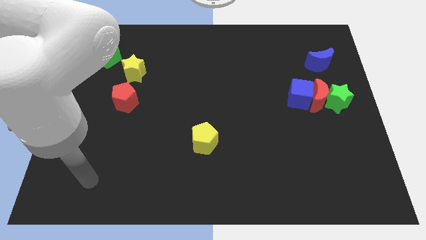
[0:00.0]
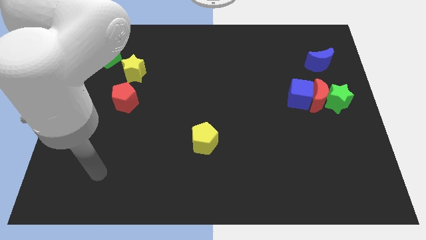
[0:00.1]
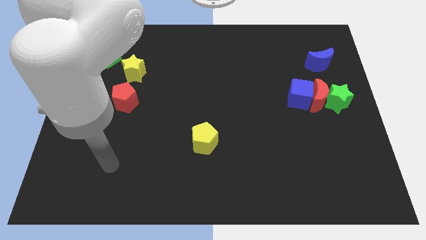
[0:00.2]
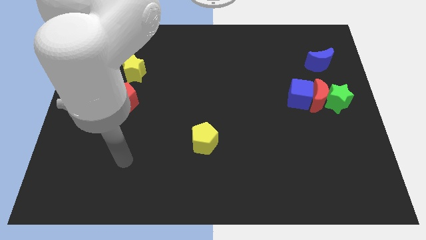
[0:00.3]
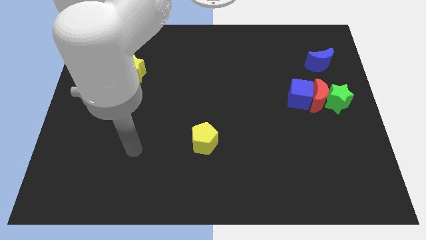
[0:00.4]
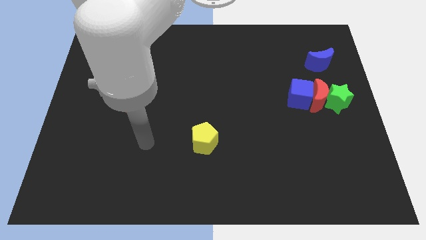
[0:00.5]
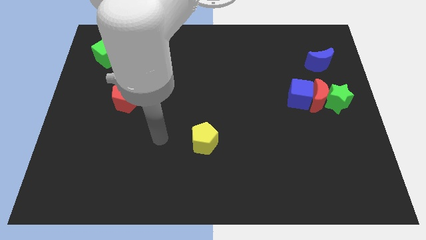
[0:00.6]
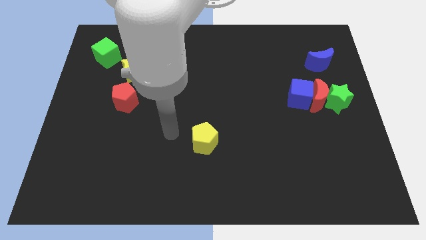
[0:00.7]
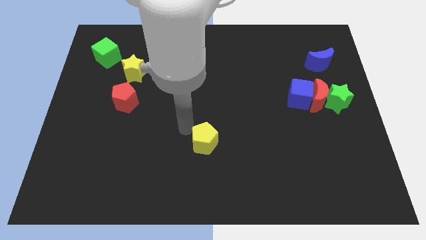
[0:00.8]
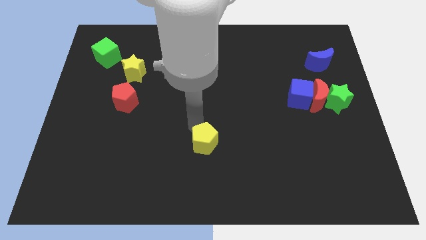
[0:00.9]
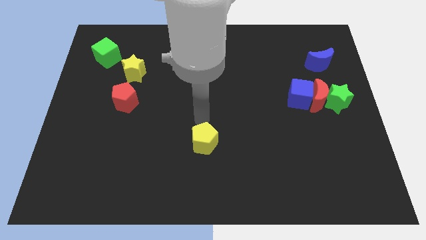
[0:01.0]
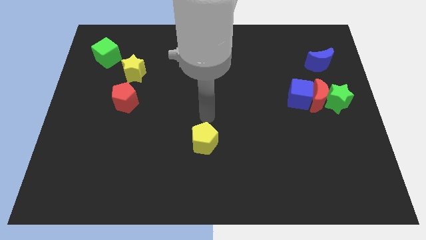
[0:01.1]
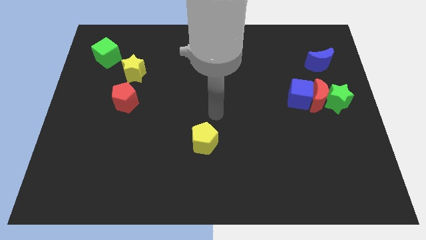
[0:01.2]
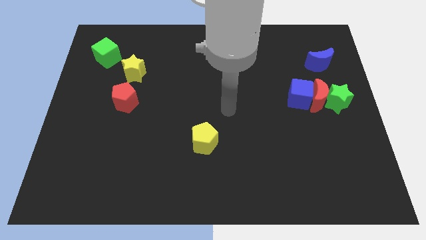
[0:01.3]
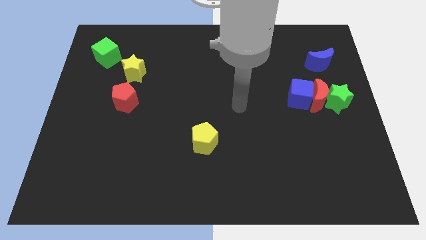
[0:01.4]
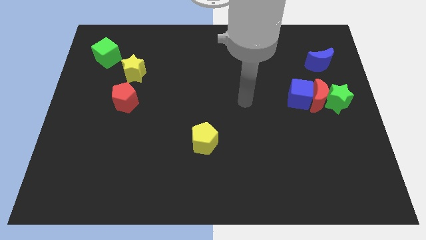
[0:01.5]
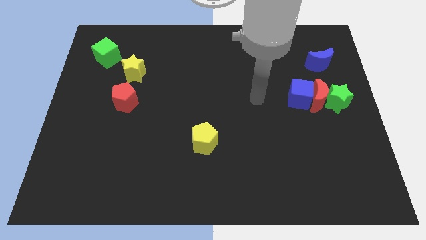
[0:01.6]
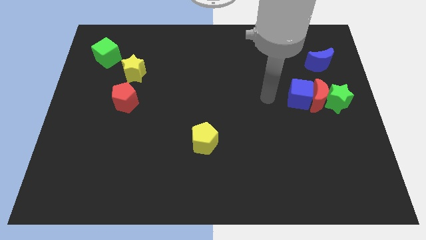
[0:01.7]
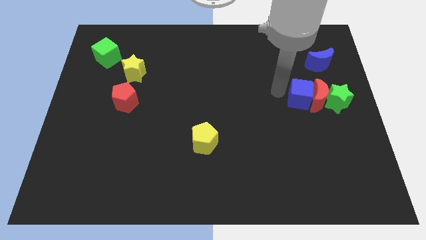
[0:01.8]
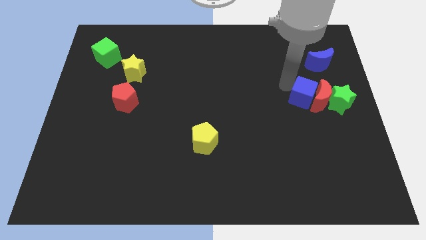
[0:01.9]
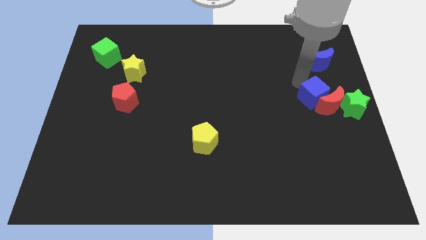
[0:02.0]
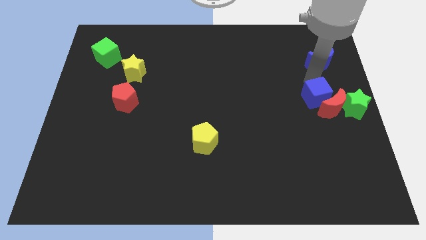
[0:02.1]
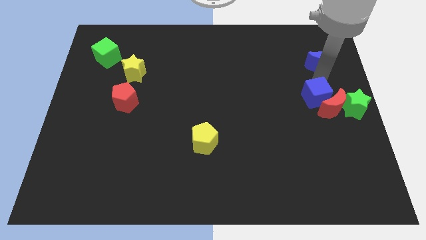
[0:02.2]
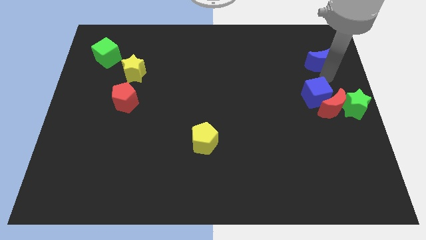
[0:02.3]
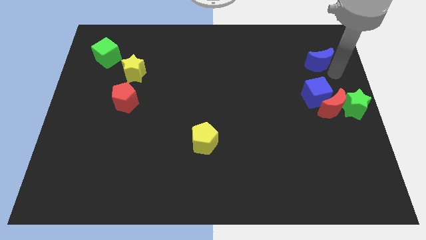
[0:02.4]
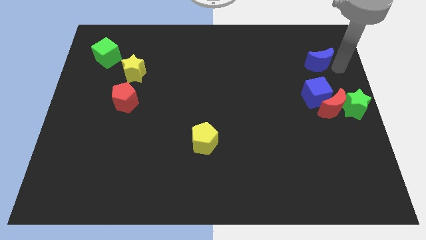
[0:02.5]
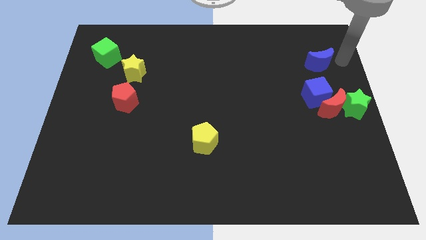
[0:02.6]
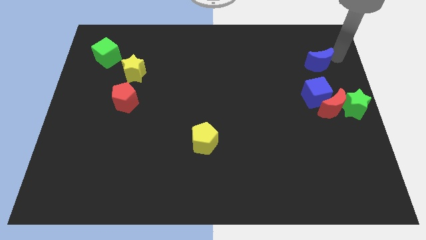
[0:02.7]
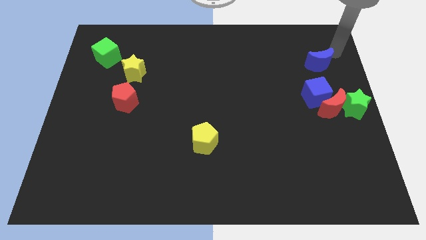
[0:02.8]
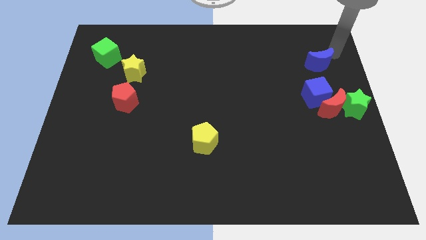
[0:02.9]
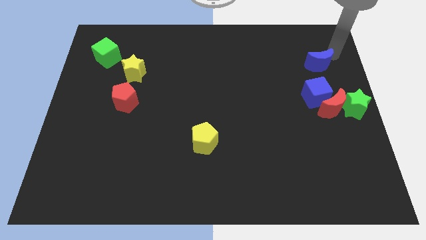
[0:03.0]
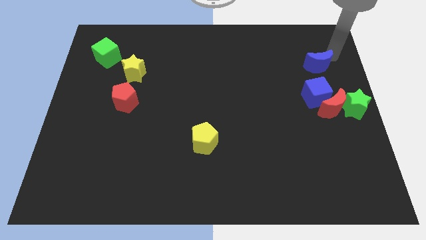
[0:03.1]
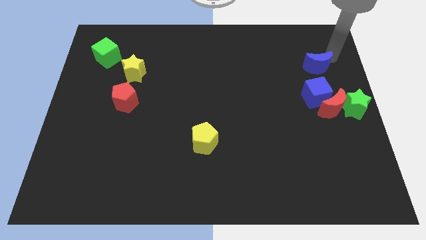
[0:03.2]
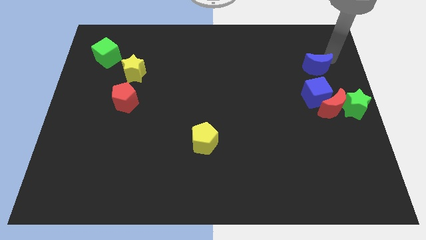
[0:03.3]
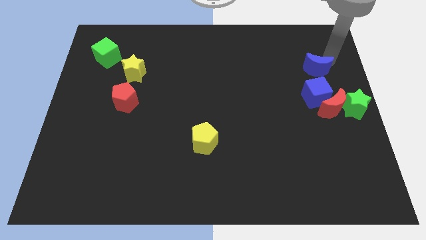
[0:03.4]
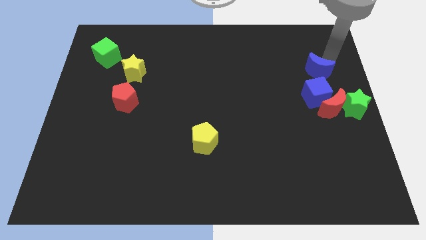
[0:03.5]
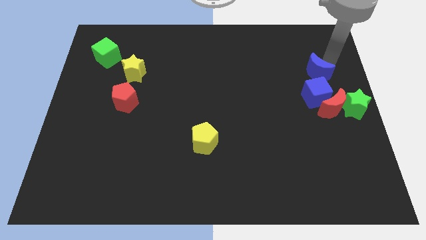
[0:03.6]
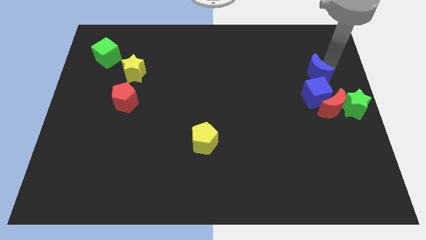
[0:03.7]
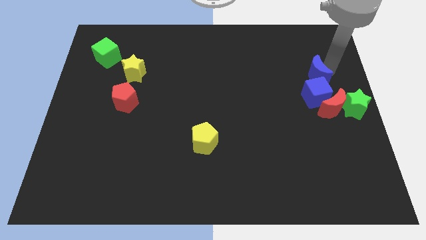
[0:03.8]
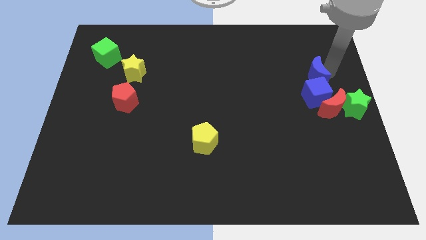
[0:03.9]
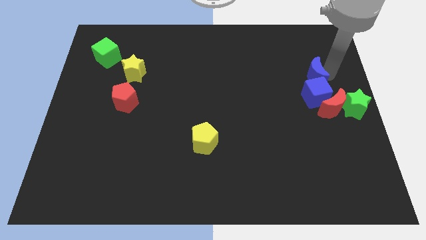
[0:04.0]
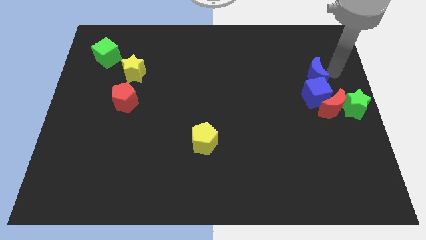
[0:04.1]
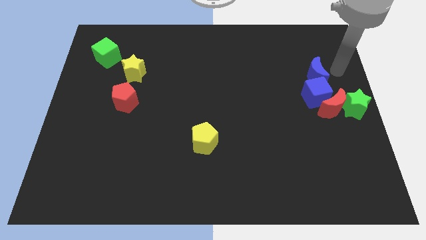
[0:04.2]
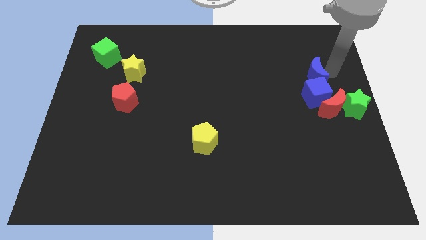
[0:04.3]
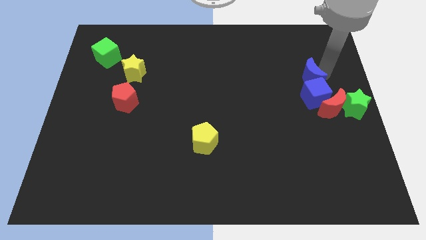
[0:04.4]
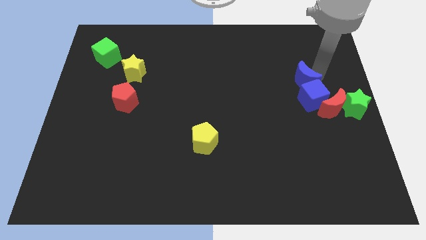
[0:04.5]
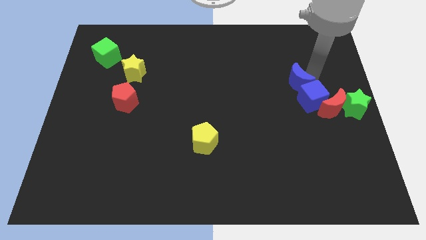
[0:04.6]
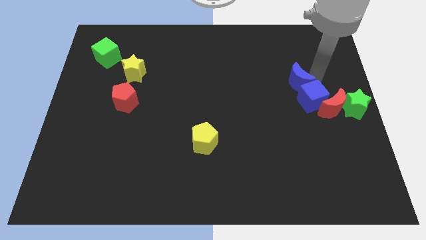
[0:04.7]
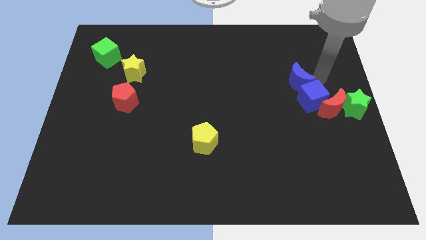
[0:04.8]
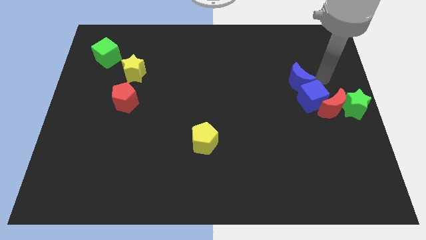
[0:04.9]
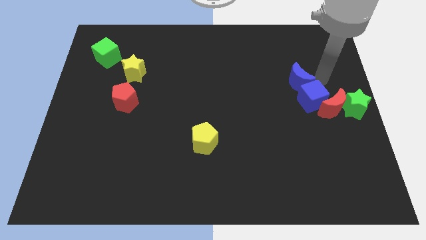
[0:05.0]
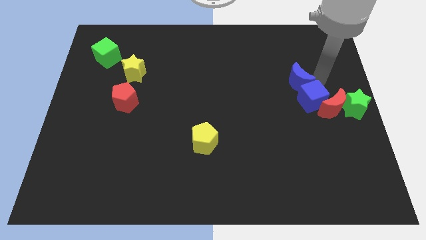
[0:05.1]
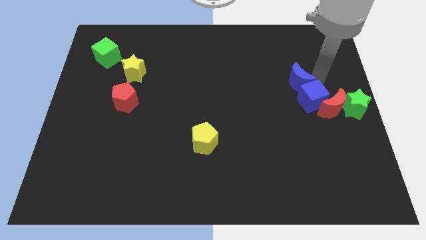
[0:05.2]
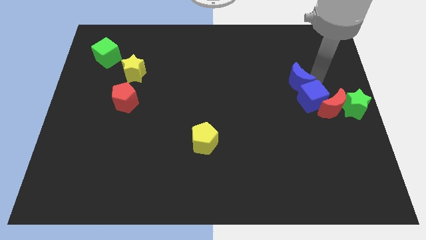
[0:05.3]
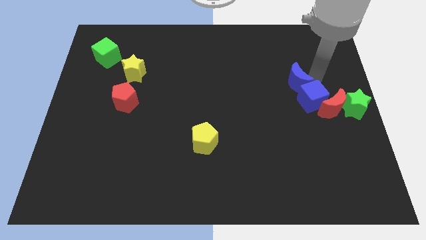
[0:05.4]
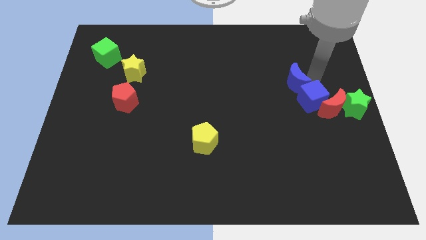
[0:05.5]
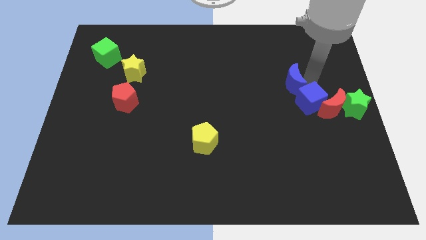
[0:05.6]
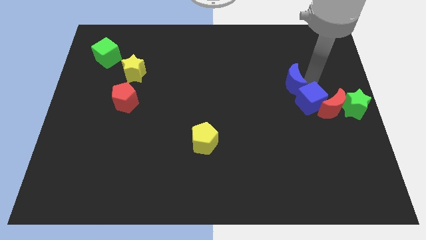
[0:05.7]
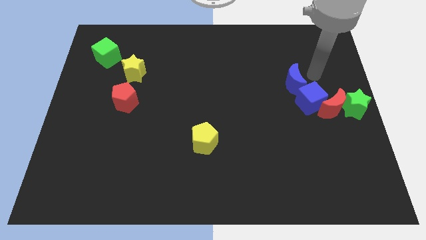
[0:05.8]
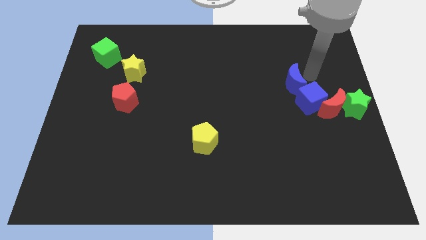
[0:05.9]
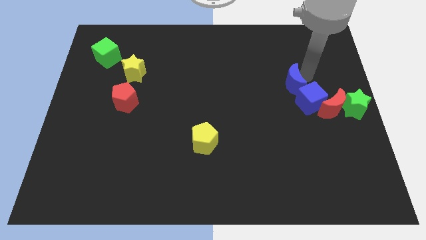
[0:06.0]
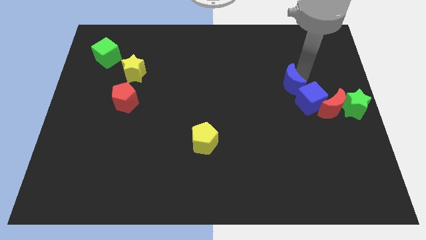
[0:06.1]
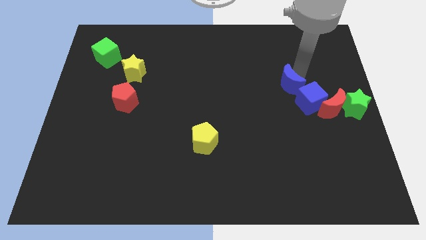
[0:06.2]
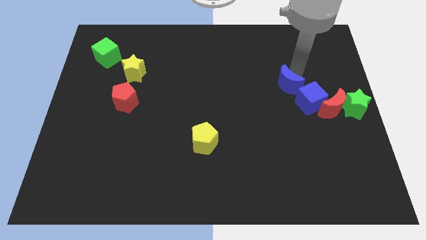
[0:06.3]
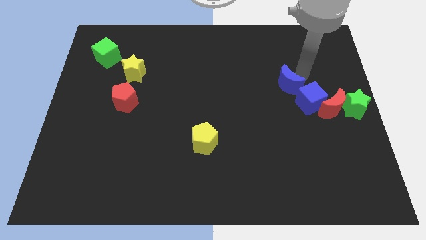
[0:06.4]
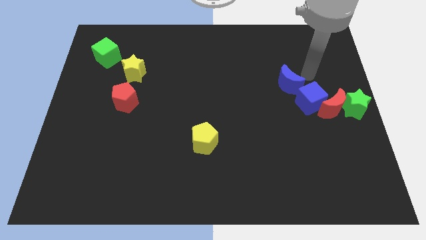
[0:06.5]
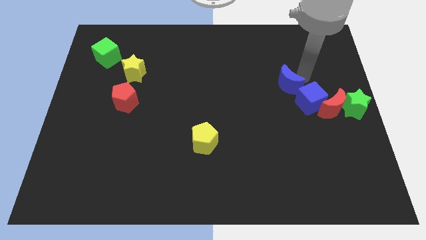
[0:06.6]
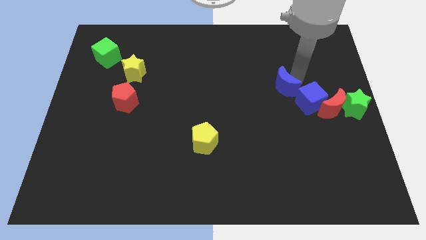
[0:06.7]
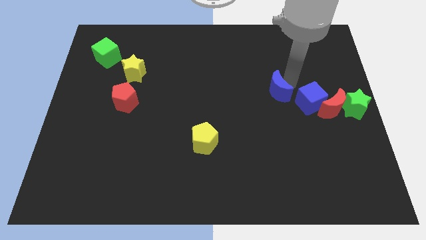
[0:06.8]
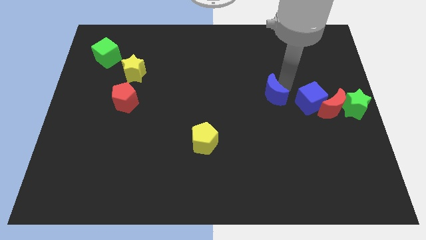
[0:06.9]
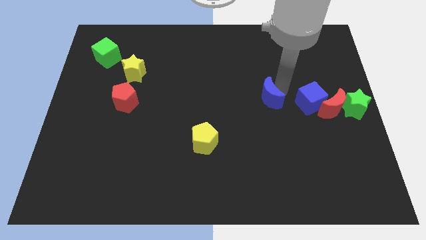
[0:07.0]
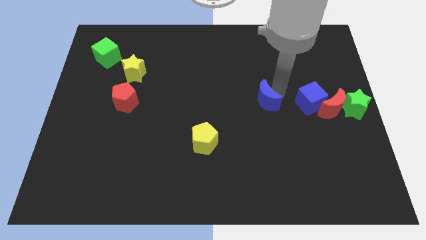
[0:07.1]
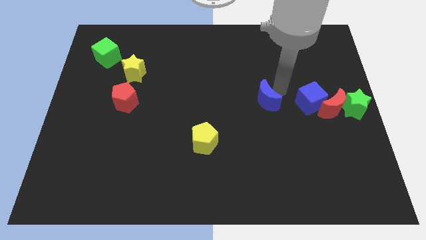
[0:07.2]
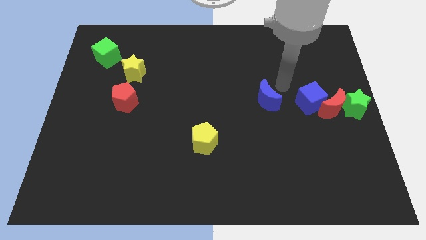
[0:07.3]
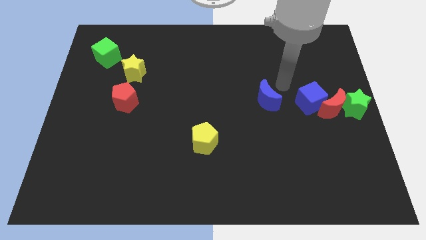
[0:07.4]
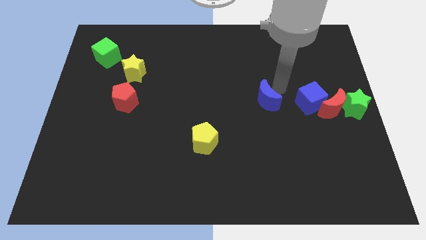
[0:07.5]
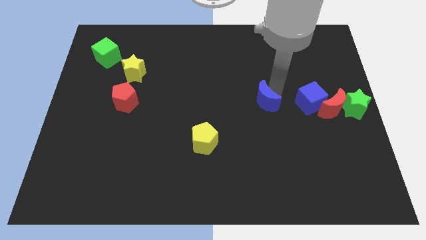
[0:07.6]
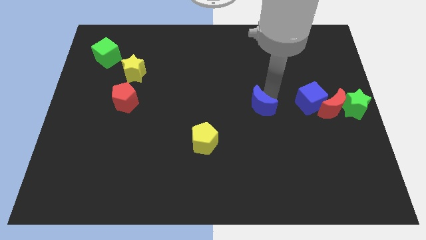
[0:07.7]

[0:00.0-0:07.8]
slide the blue moon diagonally down and left

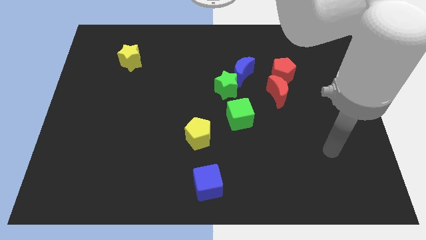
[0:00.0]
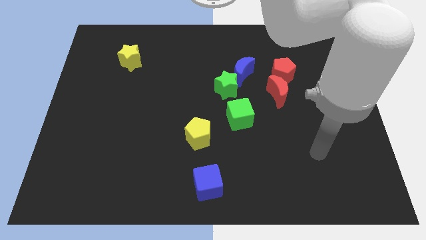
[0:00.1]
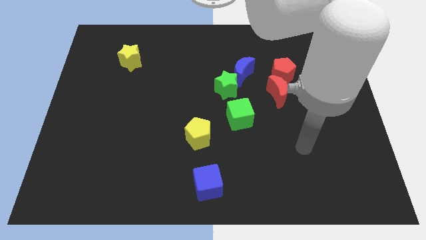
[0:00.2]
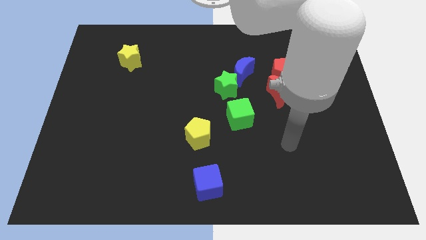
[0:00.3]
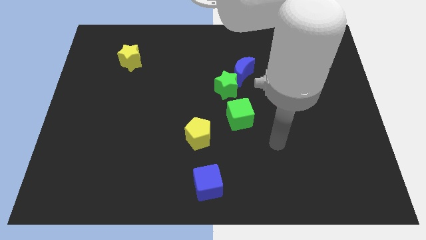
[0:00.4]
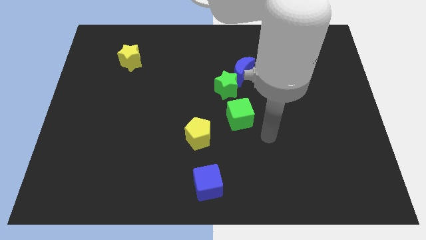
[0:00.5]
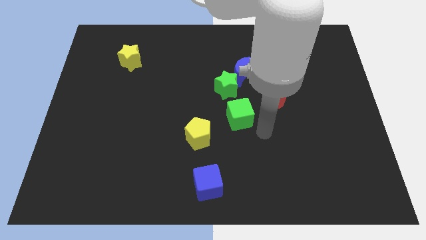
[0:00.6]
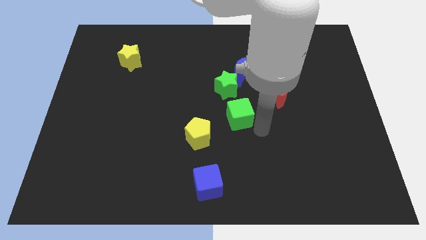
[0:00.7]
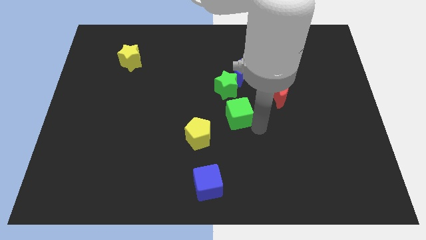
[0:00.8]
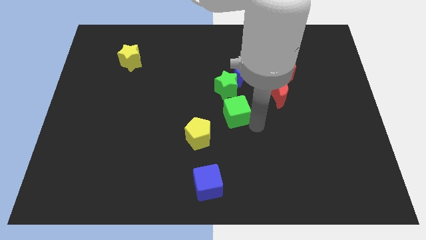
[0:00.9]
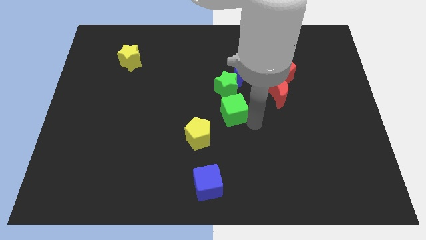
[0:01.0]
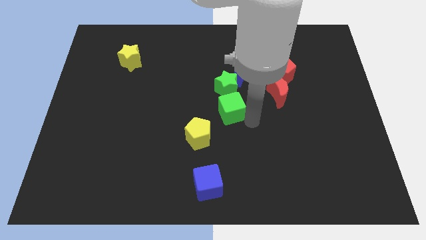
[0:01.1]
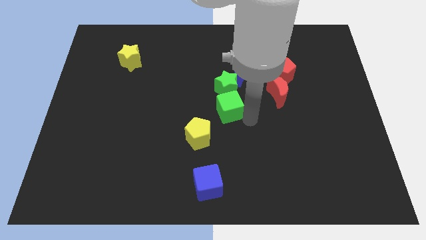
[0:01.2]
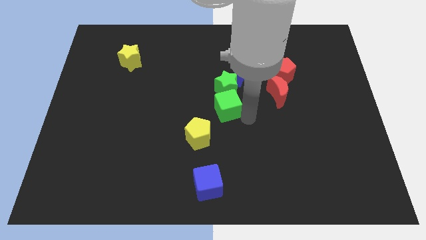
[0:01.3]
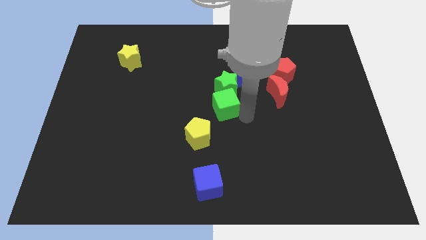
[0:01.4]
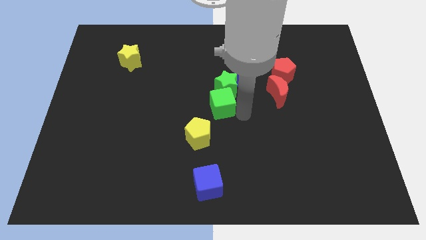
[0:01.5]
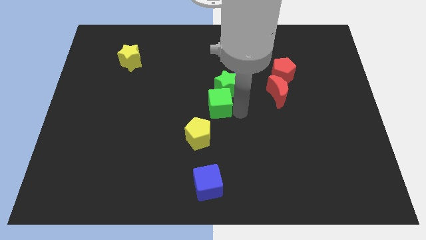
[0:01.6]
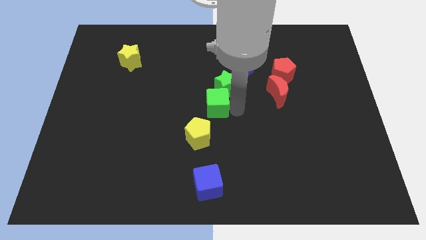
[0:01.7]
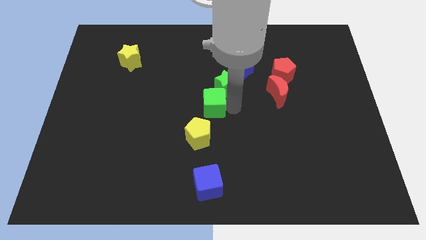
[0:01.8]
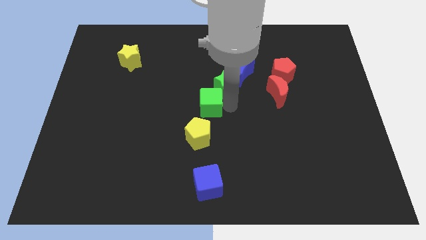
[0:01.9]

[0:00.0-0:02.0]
slightly slide the green cube upwards and left
